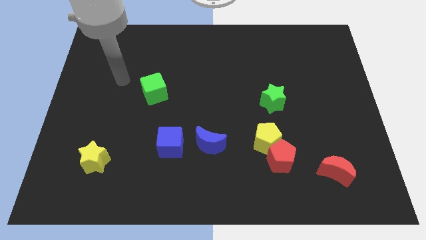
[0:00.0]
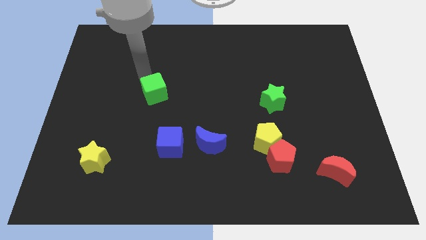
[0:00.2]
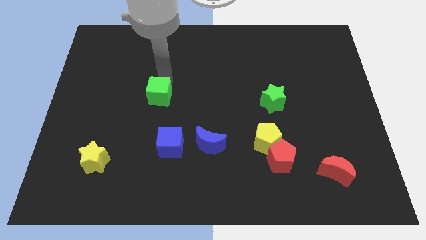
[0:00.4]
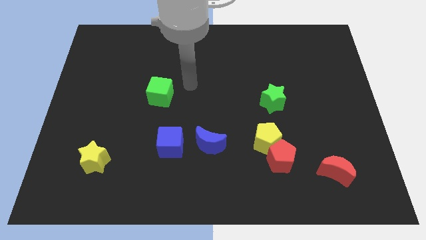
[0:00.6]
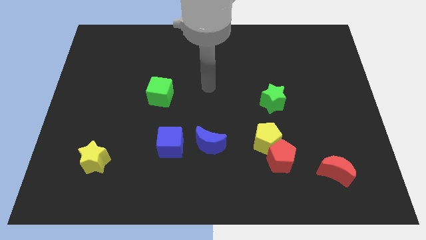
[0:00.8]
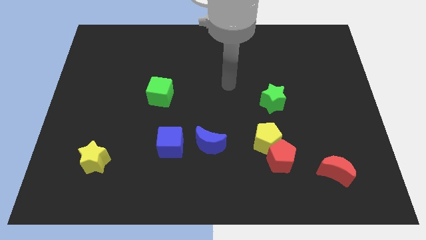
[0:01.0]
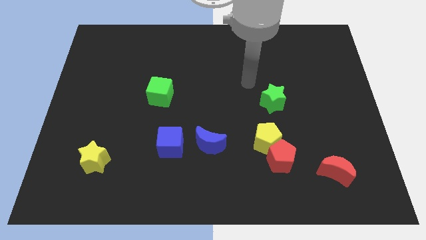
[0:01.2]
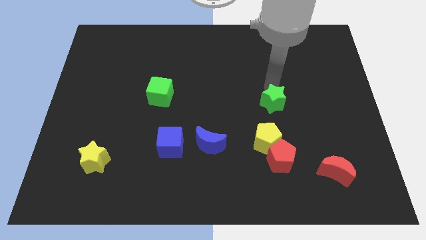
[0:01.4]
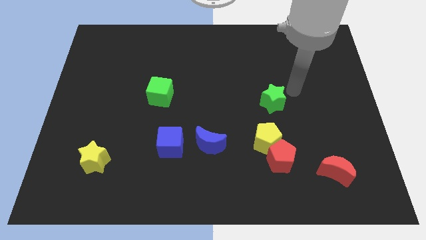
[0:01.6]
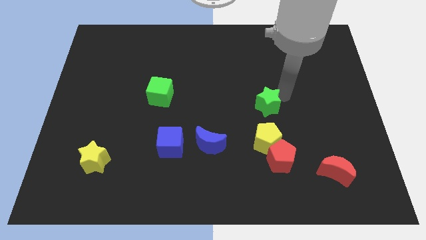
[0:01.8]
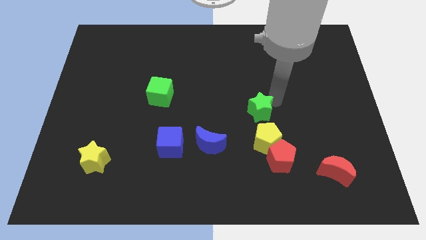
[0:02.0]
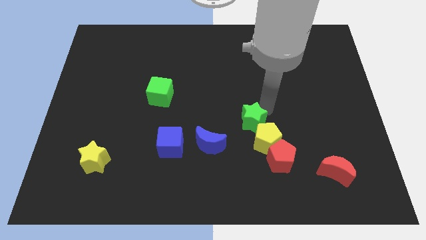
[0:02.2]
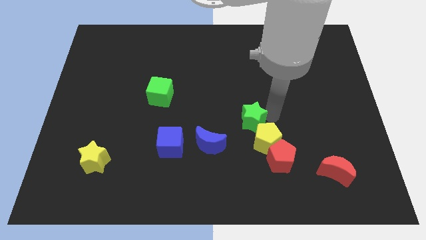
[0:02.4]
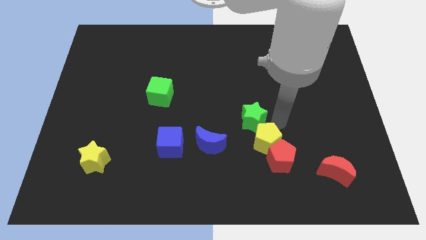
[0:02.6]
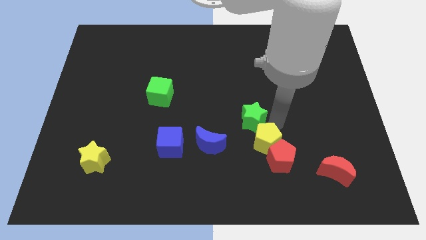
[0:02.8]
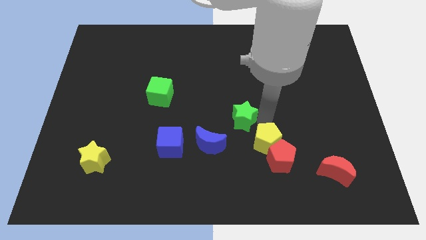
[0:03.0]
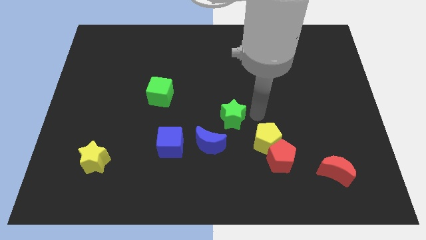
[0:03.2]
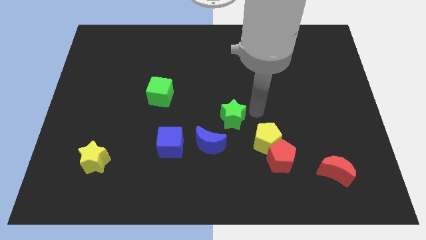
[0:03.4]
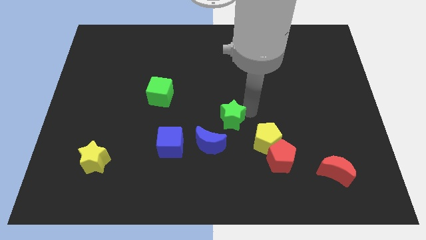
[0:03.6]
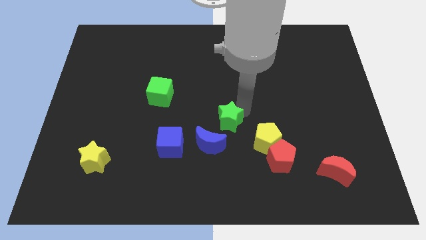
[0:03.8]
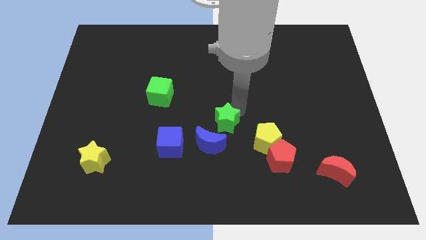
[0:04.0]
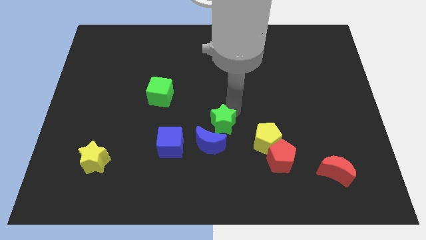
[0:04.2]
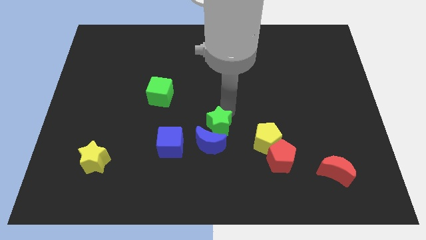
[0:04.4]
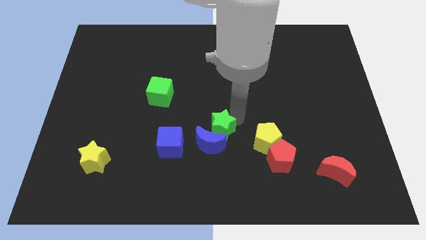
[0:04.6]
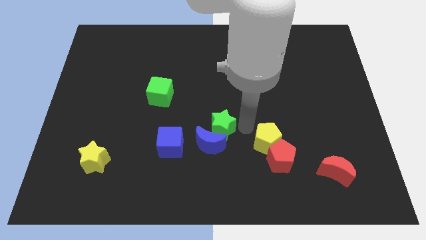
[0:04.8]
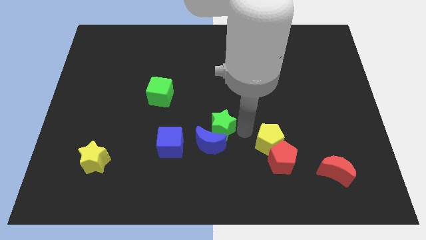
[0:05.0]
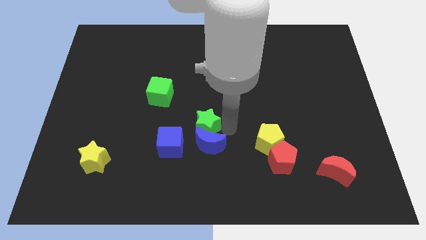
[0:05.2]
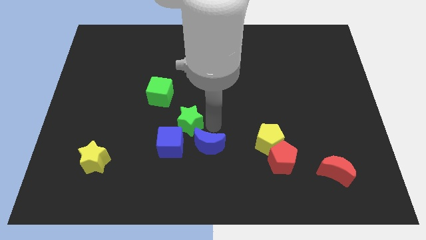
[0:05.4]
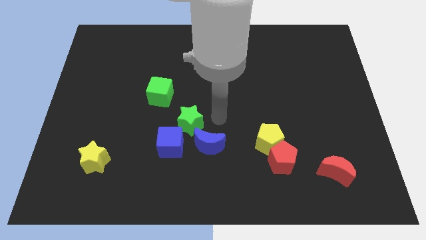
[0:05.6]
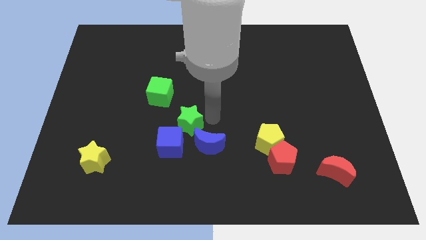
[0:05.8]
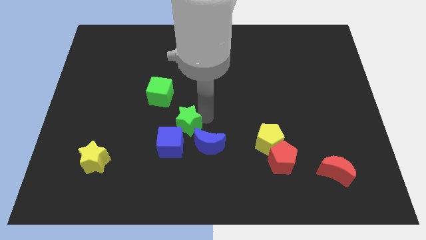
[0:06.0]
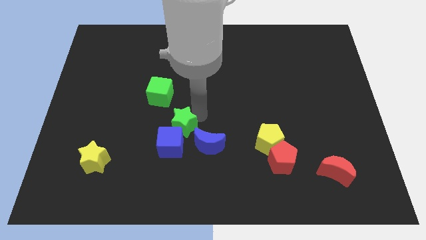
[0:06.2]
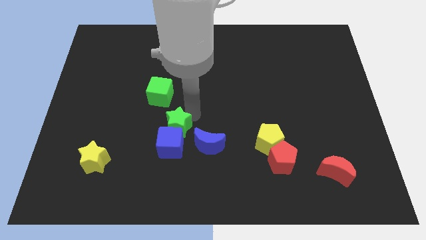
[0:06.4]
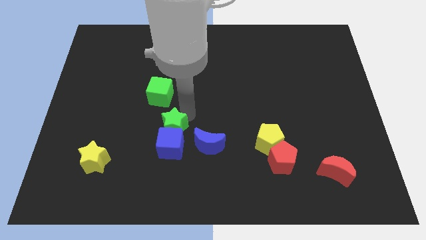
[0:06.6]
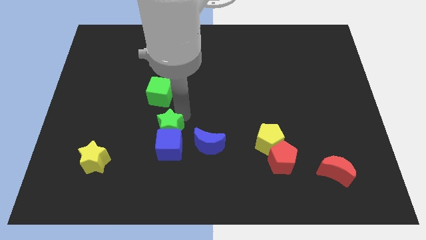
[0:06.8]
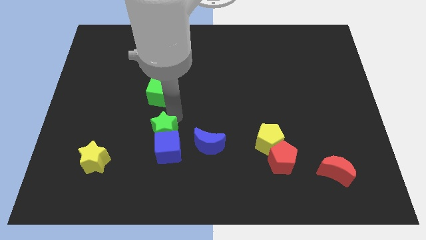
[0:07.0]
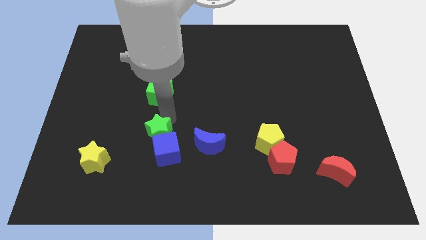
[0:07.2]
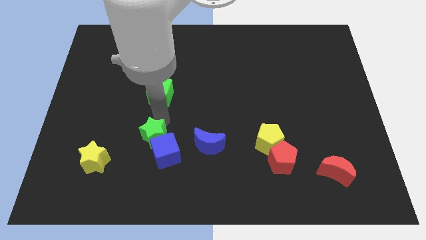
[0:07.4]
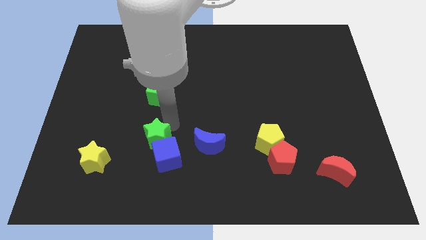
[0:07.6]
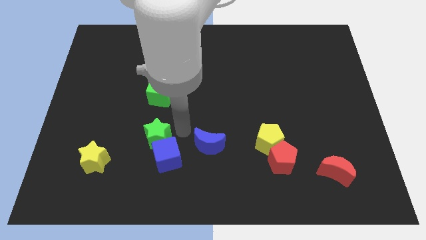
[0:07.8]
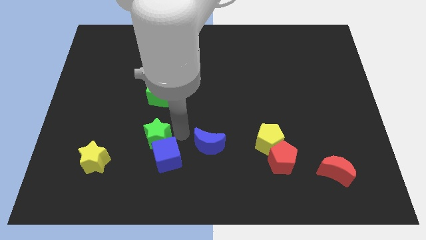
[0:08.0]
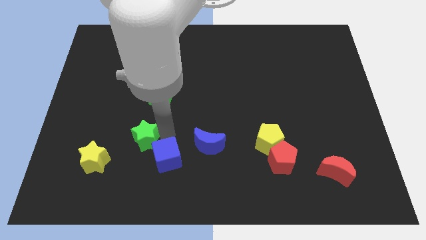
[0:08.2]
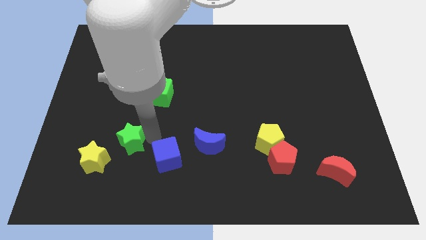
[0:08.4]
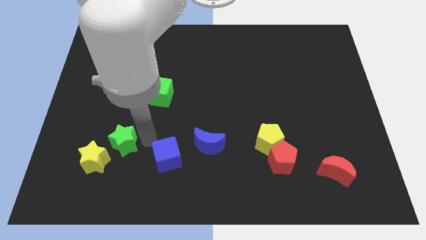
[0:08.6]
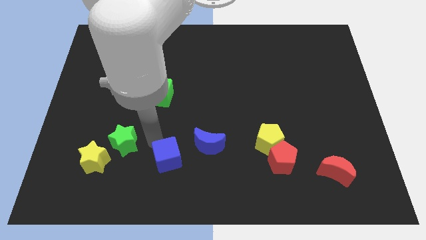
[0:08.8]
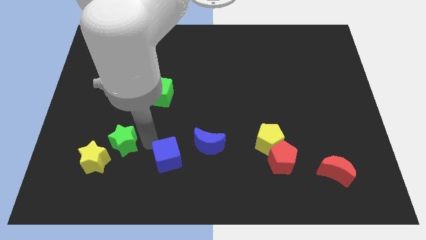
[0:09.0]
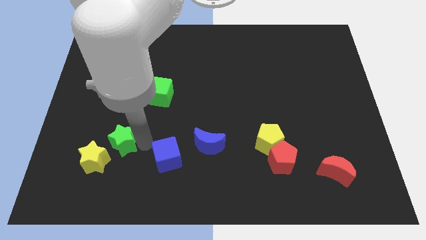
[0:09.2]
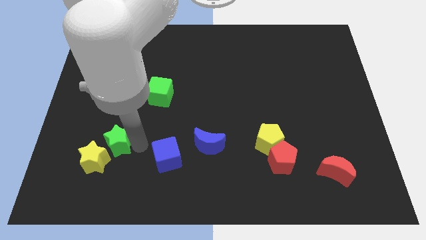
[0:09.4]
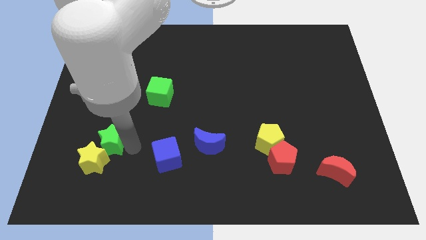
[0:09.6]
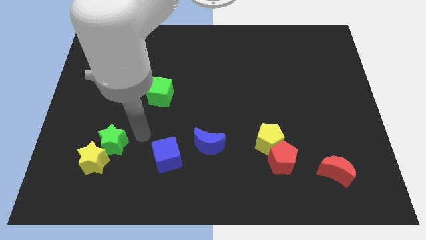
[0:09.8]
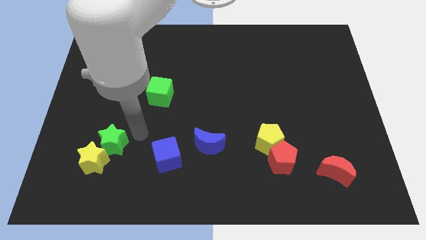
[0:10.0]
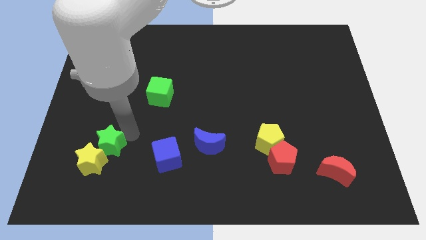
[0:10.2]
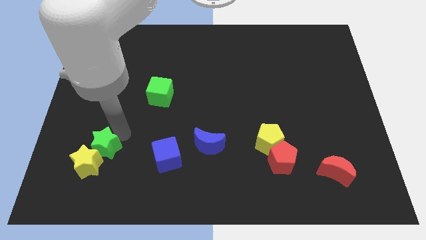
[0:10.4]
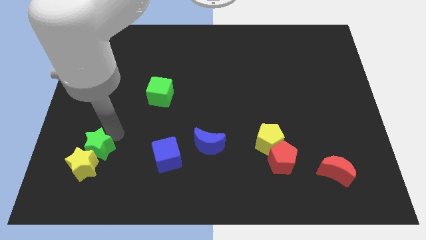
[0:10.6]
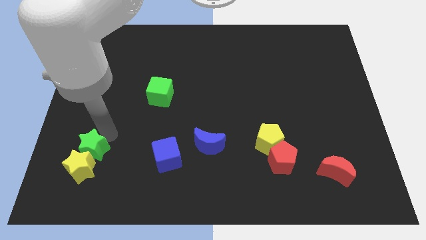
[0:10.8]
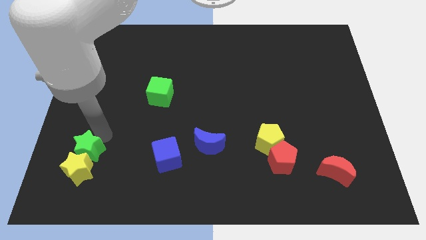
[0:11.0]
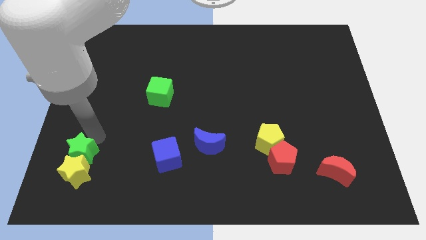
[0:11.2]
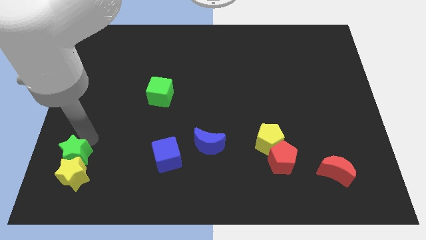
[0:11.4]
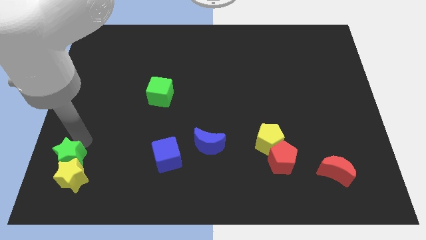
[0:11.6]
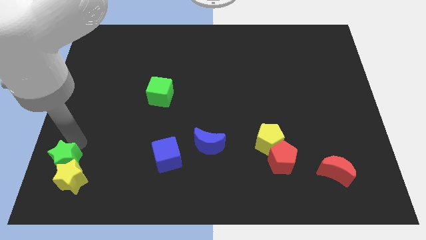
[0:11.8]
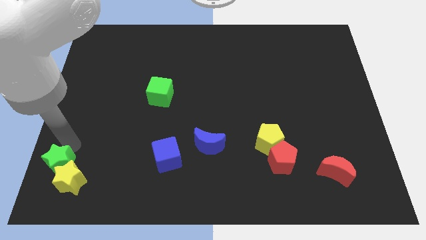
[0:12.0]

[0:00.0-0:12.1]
move the green star to the bottom left of the board

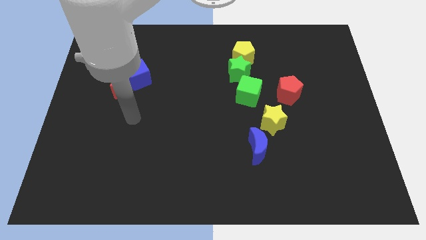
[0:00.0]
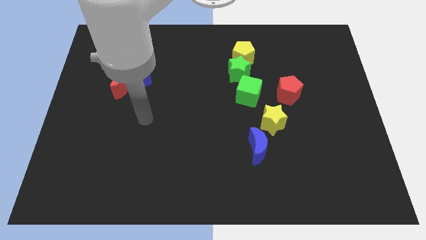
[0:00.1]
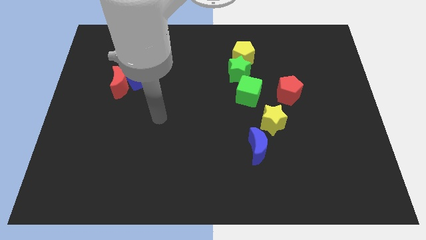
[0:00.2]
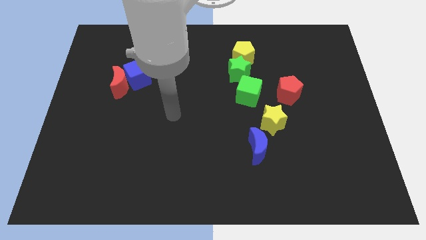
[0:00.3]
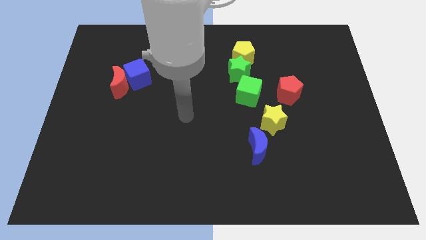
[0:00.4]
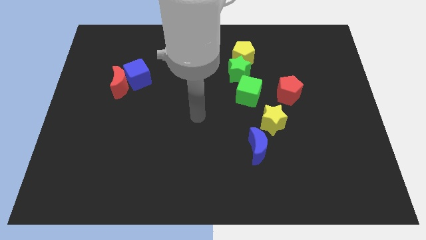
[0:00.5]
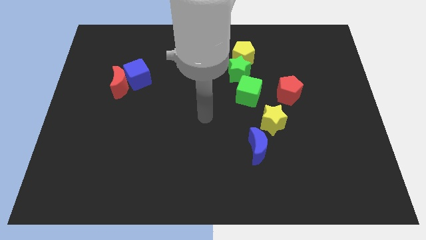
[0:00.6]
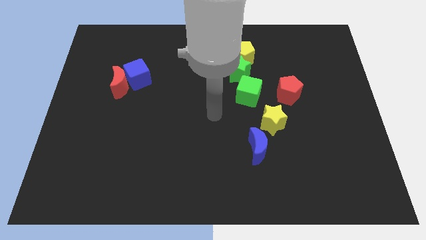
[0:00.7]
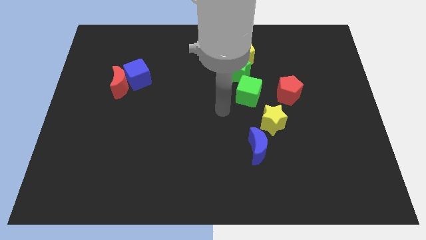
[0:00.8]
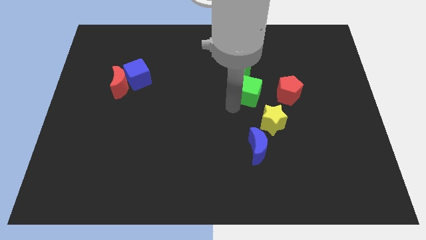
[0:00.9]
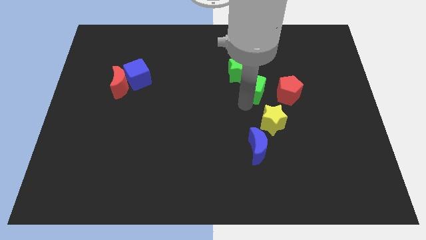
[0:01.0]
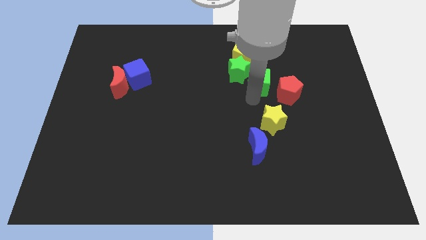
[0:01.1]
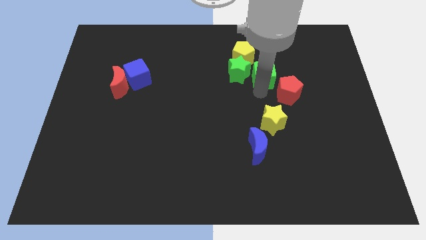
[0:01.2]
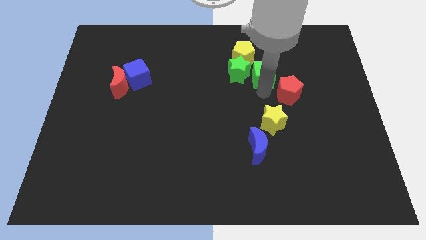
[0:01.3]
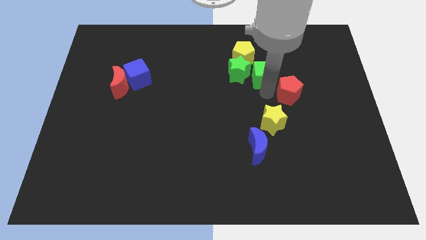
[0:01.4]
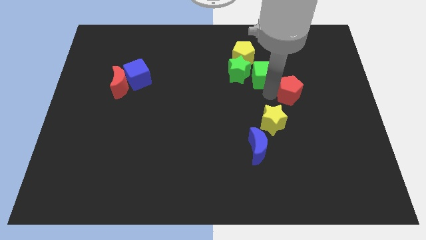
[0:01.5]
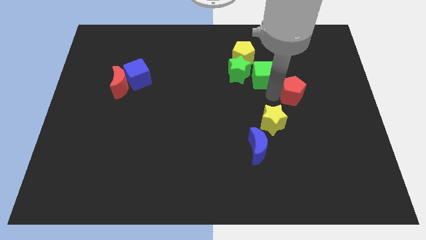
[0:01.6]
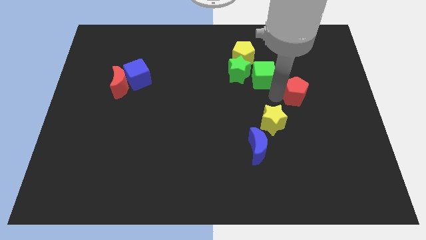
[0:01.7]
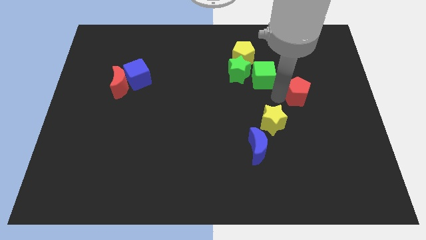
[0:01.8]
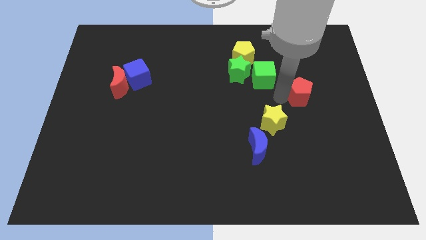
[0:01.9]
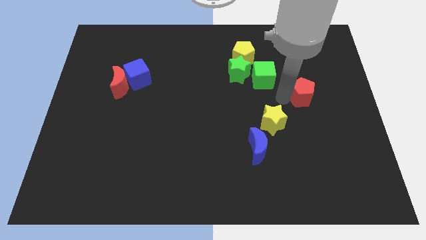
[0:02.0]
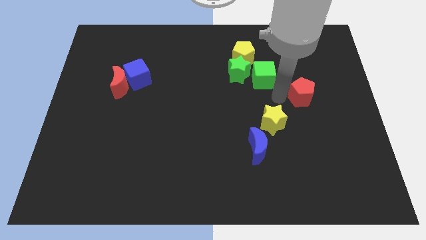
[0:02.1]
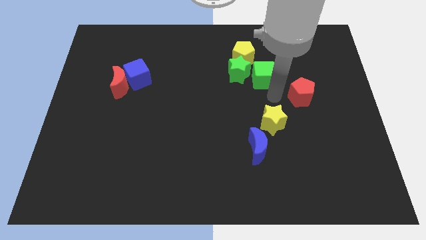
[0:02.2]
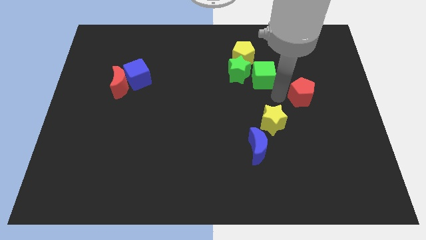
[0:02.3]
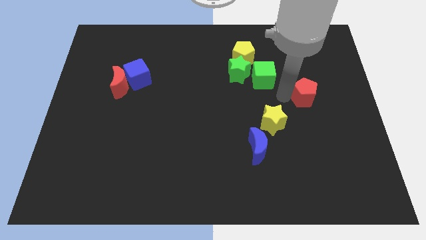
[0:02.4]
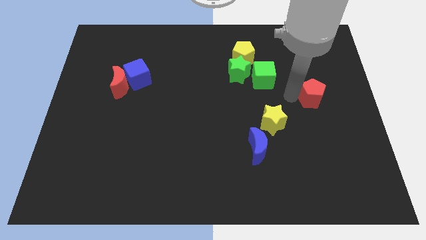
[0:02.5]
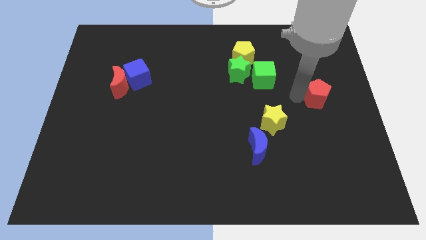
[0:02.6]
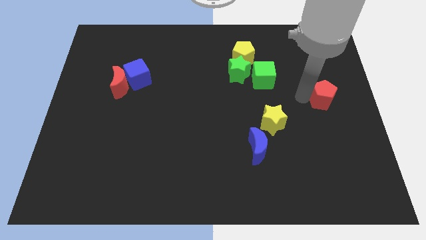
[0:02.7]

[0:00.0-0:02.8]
move the red pentagon to the right side
